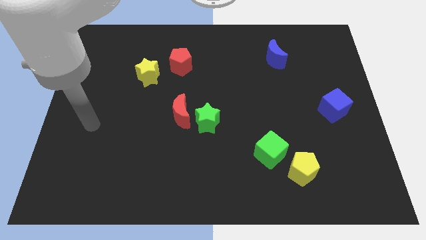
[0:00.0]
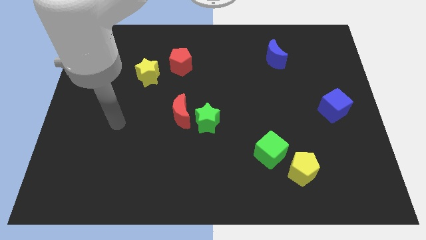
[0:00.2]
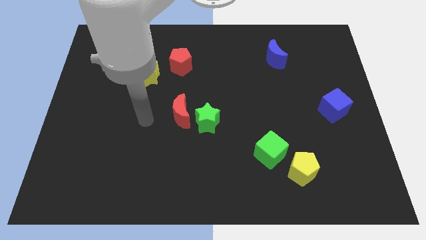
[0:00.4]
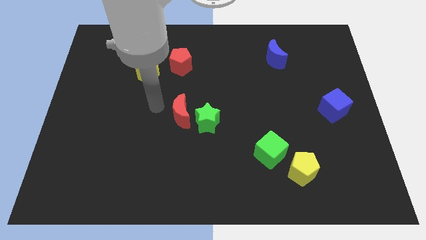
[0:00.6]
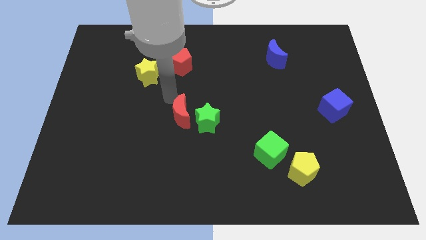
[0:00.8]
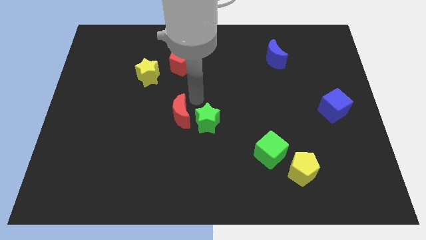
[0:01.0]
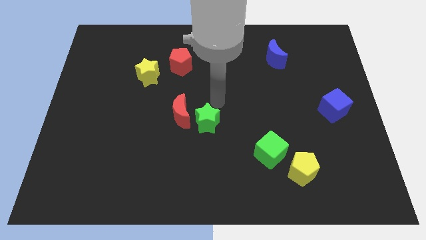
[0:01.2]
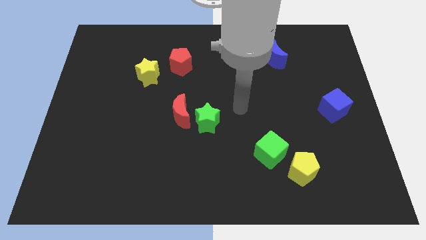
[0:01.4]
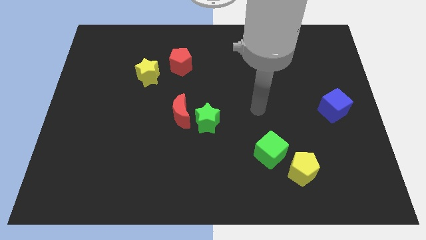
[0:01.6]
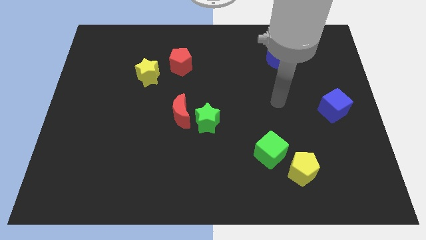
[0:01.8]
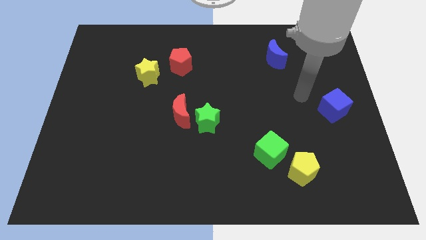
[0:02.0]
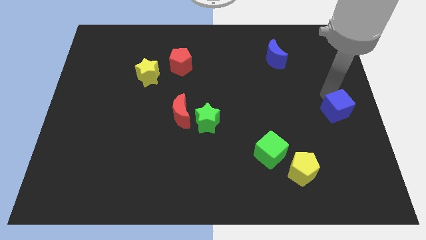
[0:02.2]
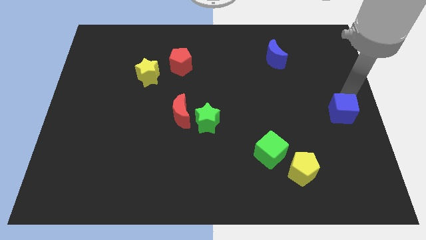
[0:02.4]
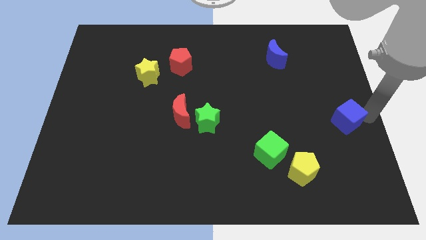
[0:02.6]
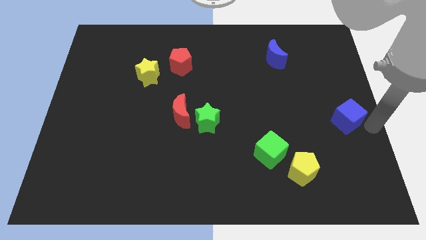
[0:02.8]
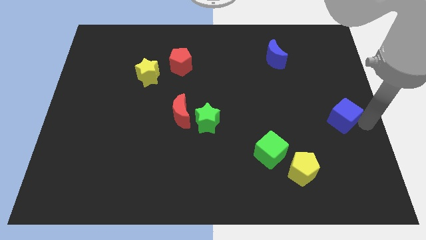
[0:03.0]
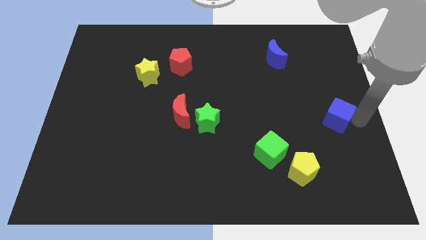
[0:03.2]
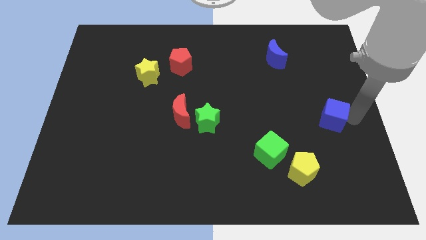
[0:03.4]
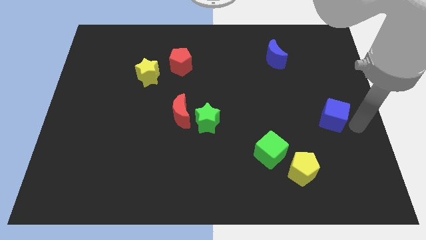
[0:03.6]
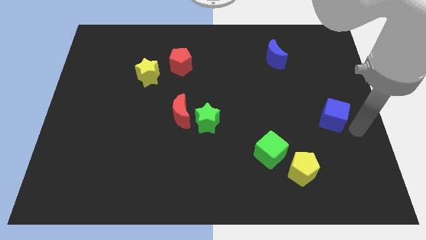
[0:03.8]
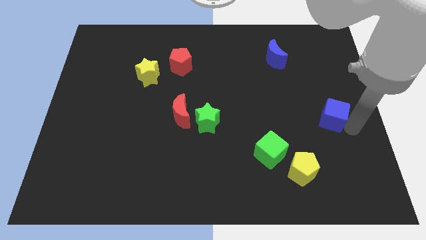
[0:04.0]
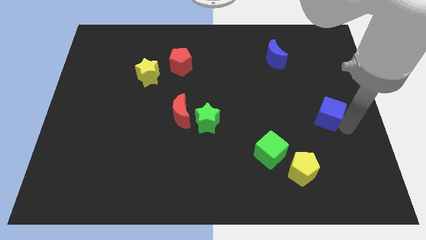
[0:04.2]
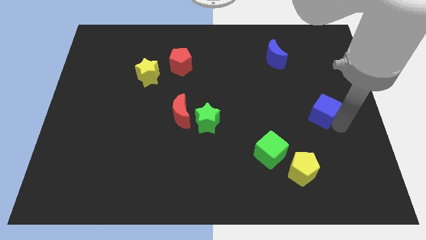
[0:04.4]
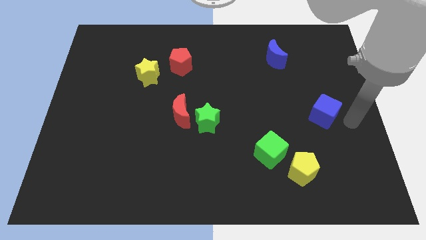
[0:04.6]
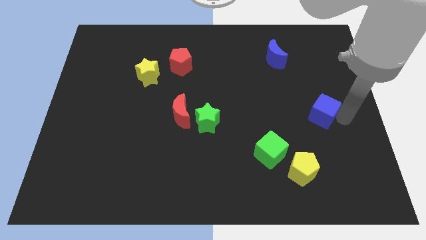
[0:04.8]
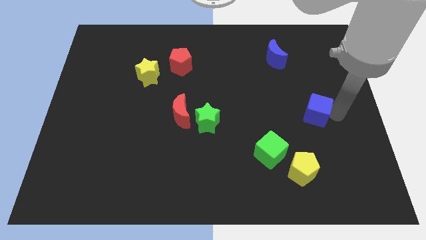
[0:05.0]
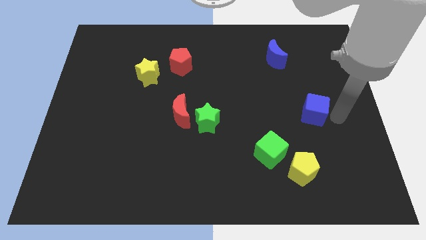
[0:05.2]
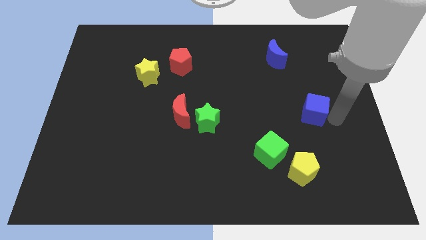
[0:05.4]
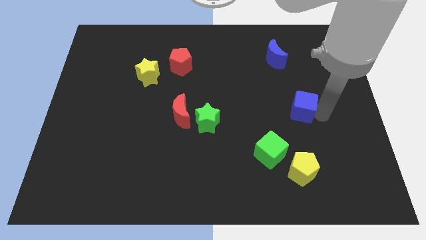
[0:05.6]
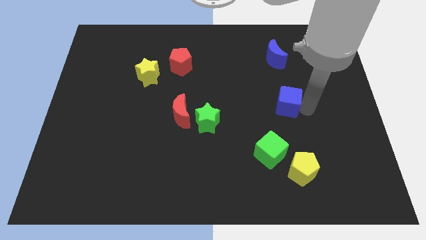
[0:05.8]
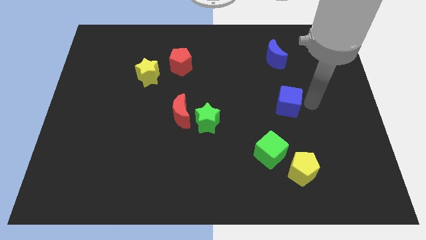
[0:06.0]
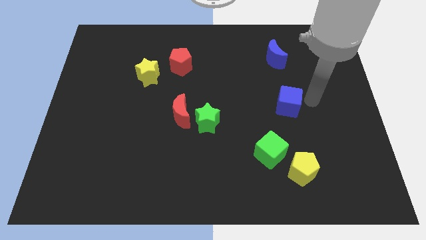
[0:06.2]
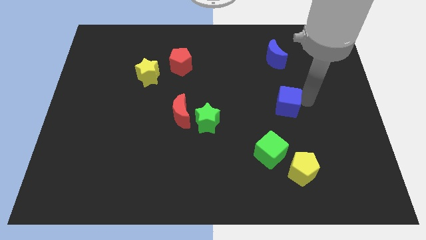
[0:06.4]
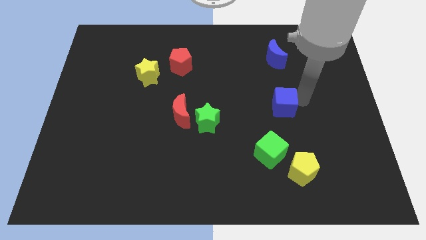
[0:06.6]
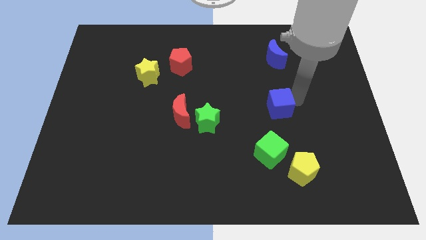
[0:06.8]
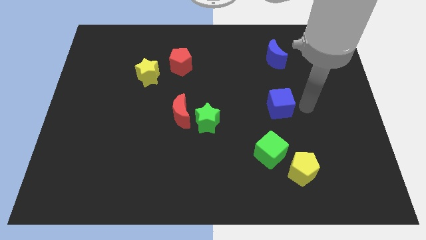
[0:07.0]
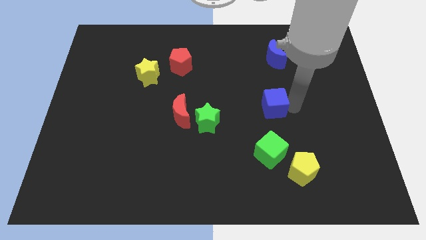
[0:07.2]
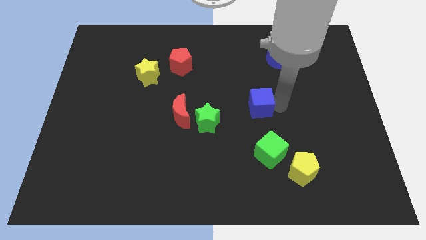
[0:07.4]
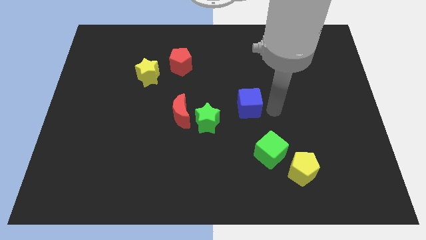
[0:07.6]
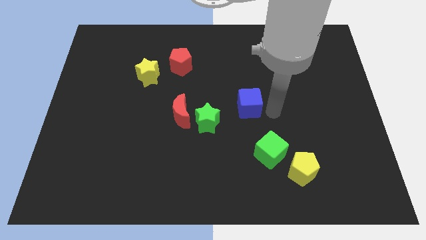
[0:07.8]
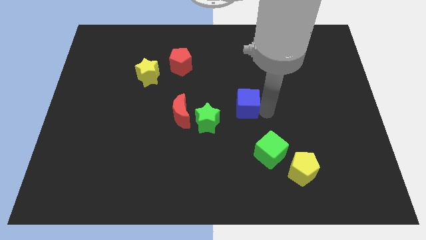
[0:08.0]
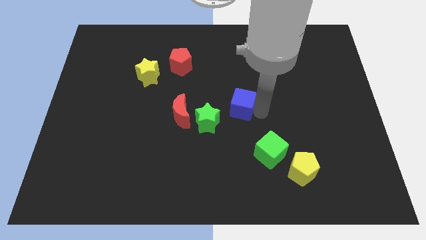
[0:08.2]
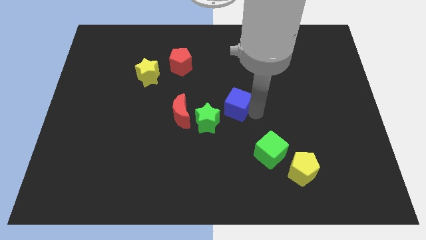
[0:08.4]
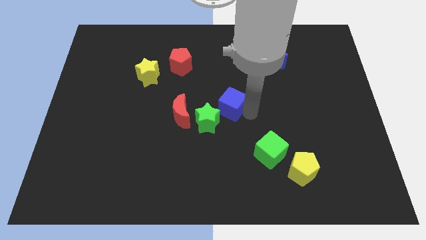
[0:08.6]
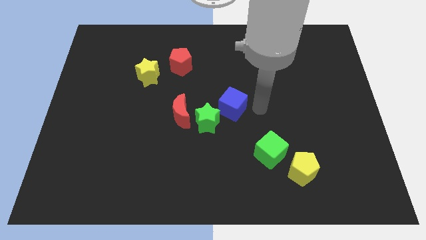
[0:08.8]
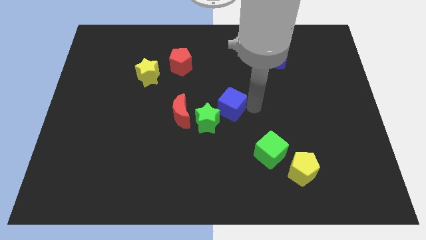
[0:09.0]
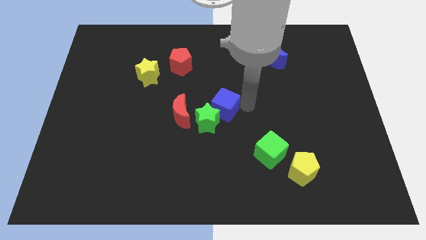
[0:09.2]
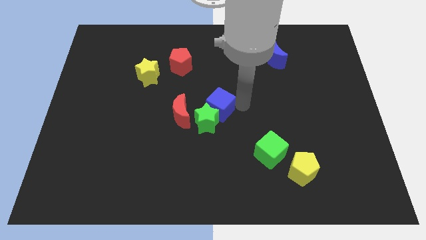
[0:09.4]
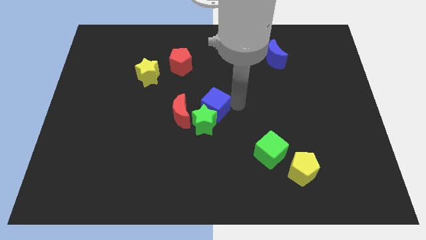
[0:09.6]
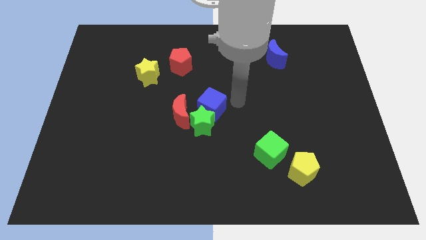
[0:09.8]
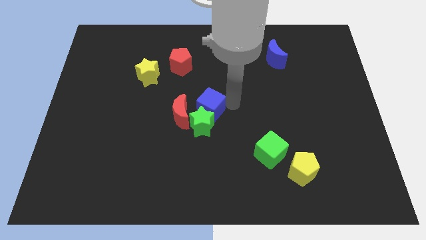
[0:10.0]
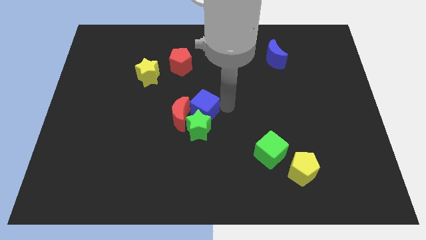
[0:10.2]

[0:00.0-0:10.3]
move the blue cube to the red moon

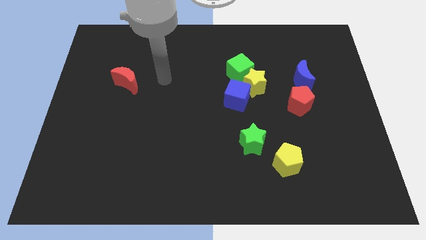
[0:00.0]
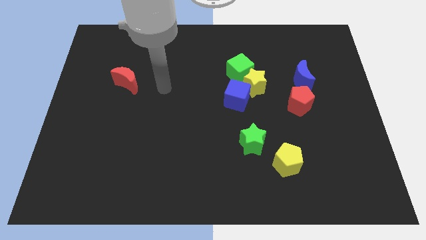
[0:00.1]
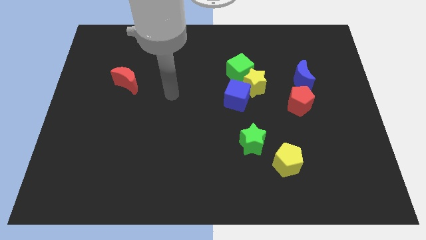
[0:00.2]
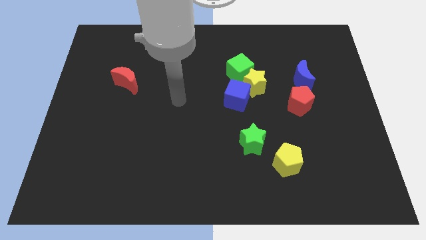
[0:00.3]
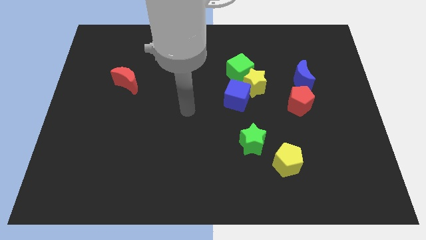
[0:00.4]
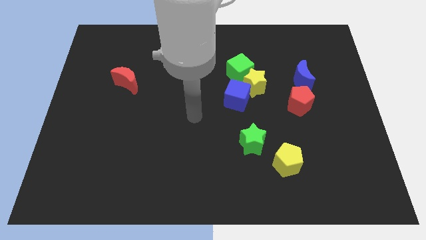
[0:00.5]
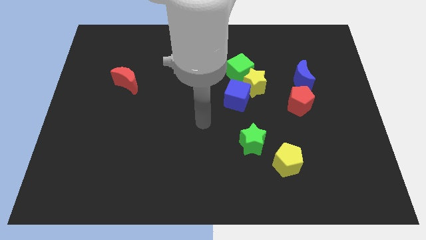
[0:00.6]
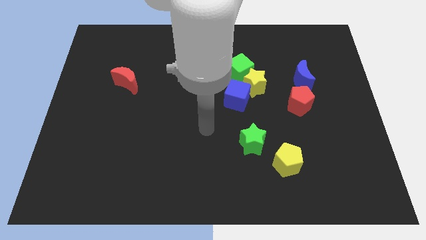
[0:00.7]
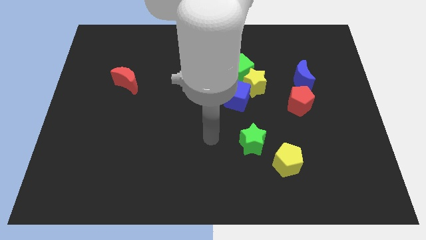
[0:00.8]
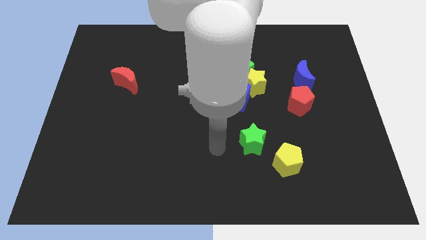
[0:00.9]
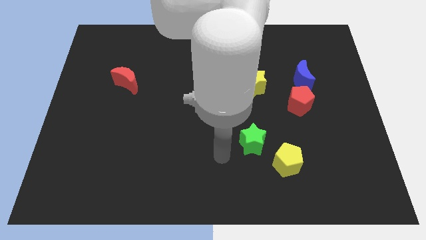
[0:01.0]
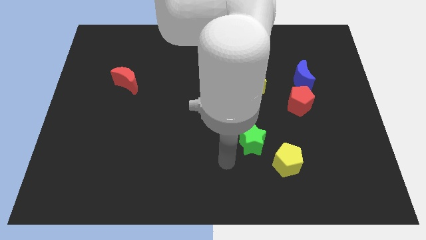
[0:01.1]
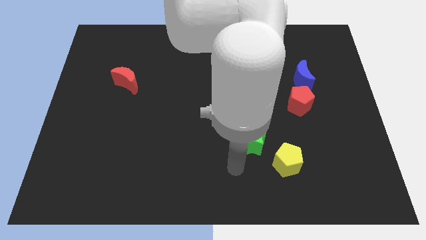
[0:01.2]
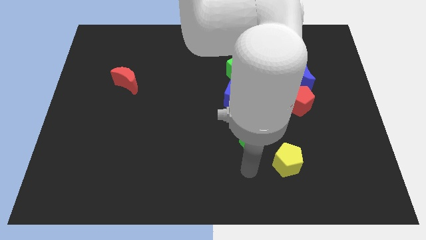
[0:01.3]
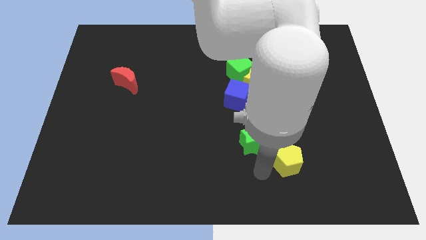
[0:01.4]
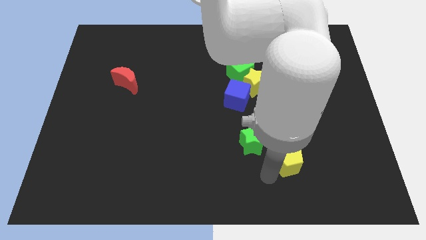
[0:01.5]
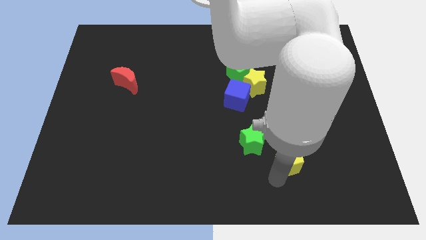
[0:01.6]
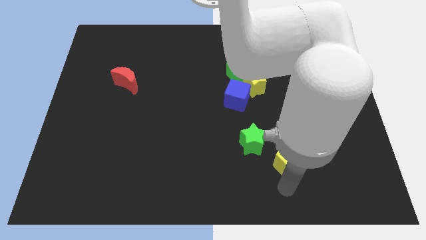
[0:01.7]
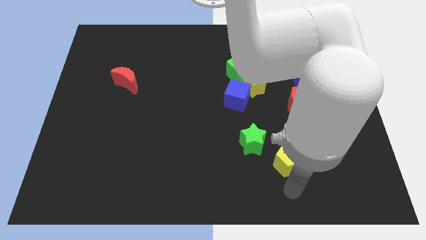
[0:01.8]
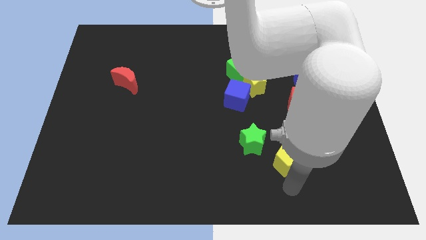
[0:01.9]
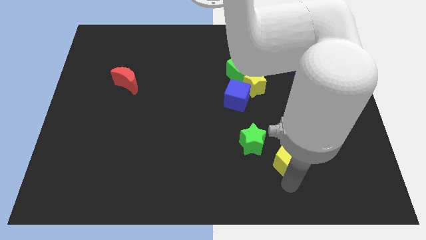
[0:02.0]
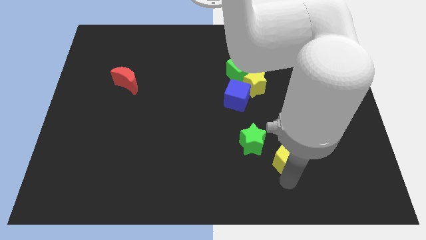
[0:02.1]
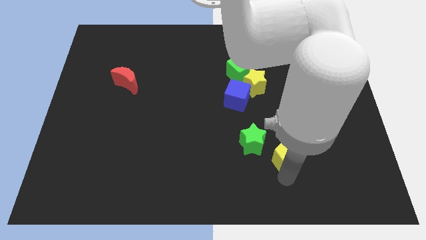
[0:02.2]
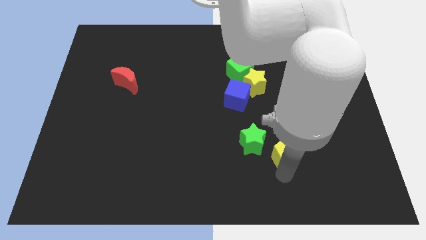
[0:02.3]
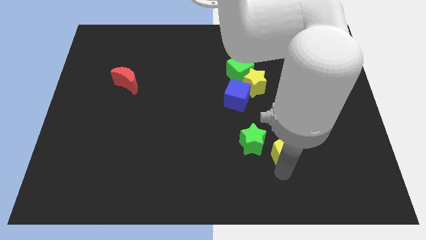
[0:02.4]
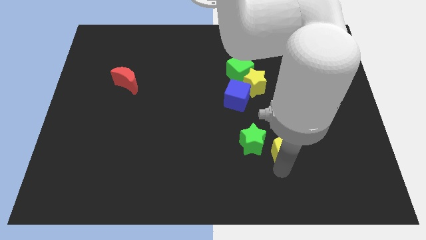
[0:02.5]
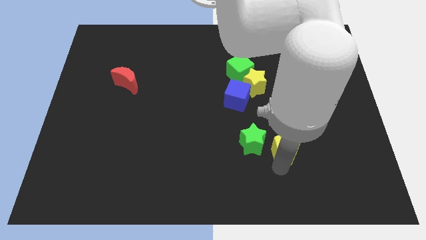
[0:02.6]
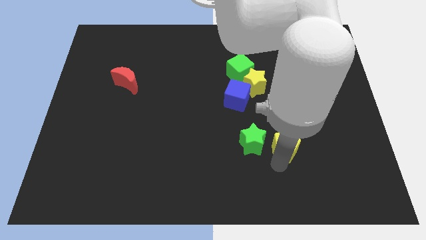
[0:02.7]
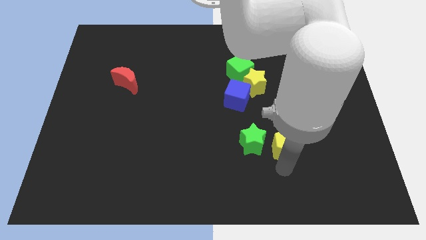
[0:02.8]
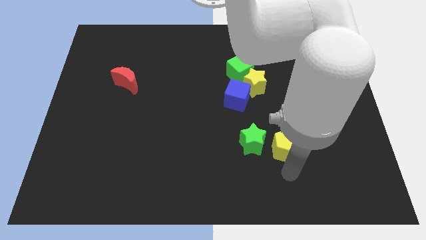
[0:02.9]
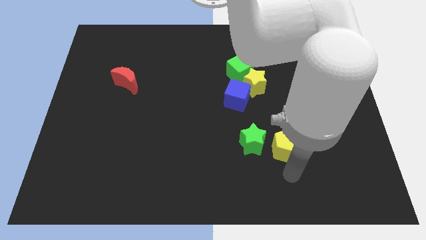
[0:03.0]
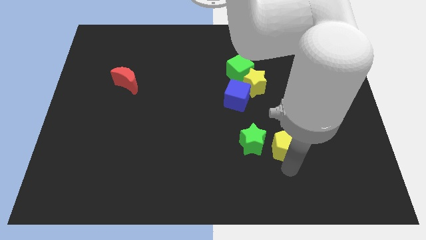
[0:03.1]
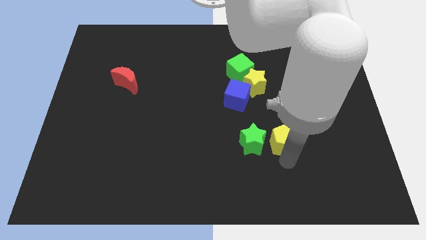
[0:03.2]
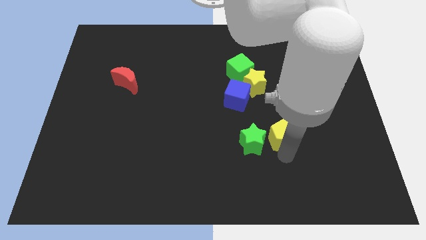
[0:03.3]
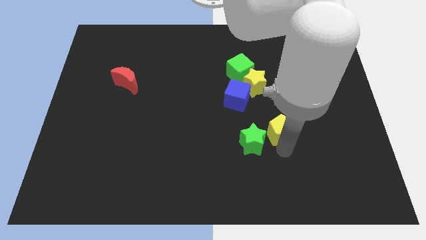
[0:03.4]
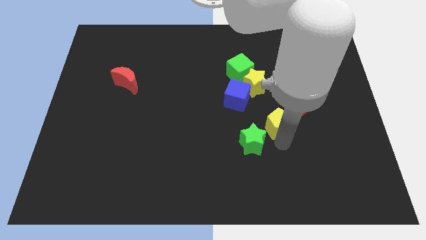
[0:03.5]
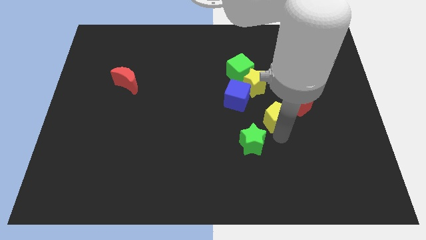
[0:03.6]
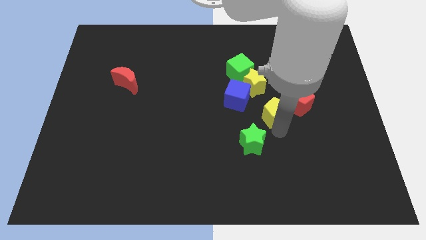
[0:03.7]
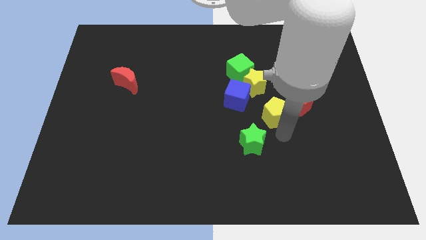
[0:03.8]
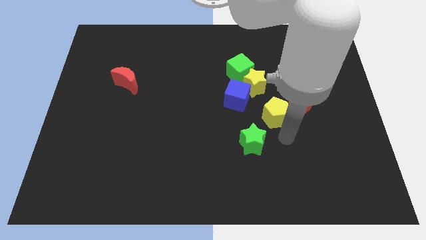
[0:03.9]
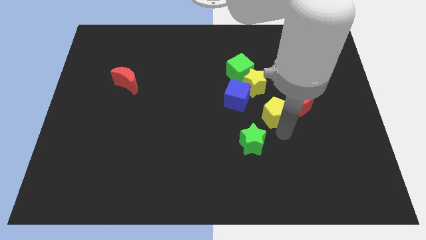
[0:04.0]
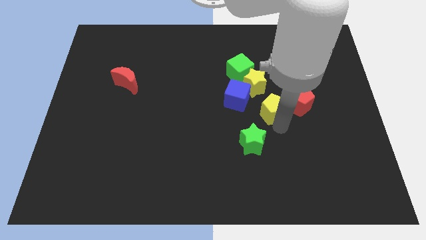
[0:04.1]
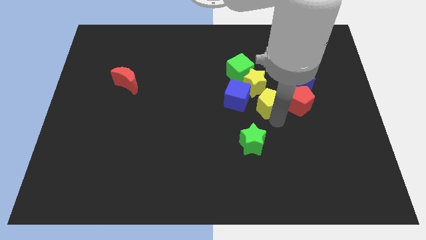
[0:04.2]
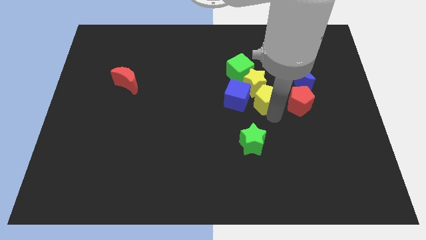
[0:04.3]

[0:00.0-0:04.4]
push the yellow pentagon to the yellow star
